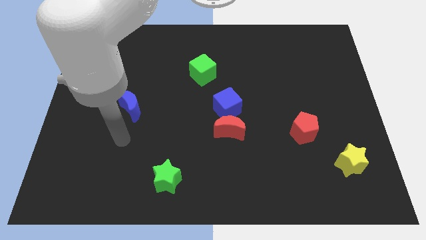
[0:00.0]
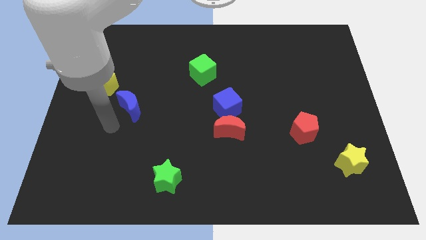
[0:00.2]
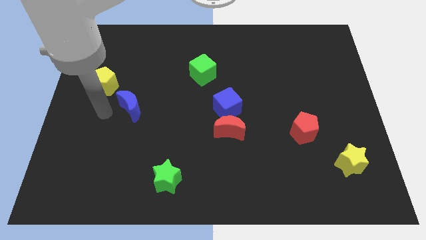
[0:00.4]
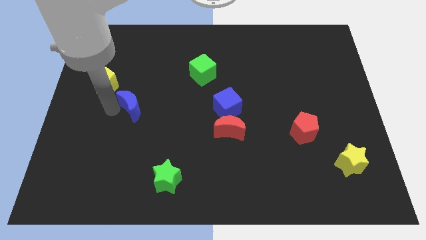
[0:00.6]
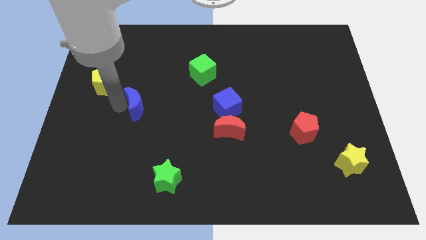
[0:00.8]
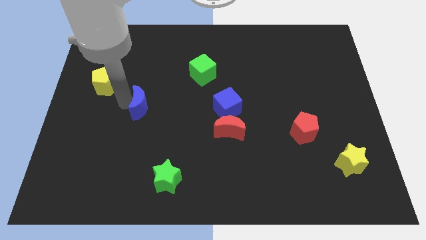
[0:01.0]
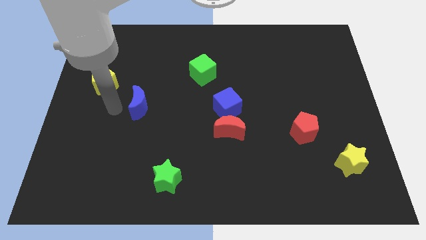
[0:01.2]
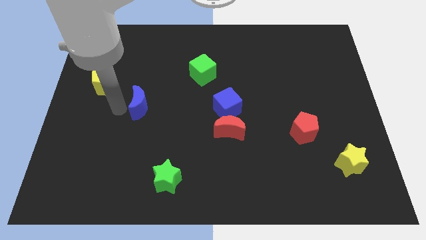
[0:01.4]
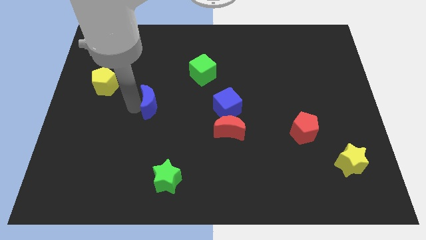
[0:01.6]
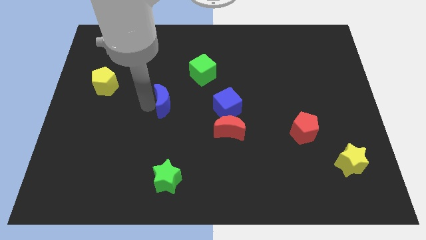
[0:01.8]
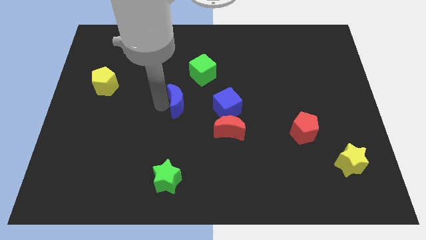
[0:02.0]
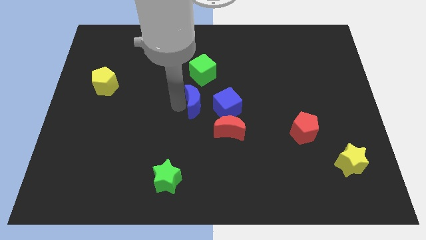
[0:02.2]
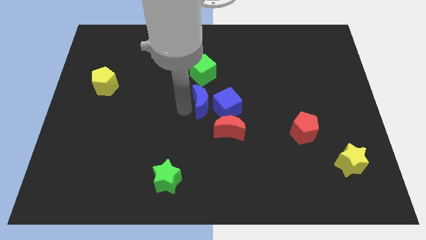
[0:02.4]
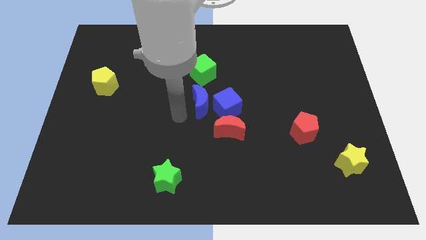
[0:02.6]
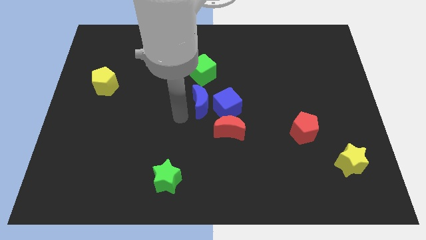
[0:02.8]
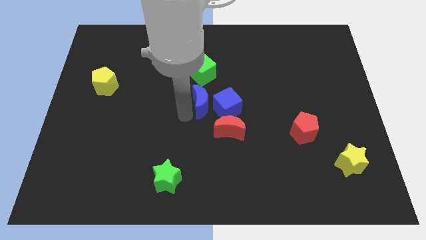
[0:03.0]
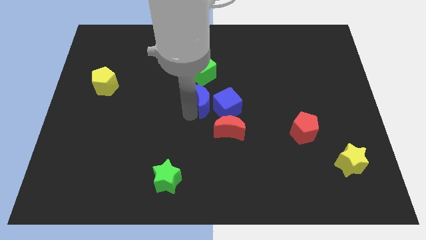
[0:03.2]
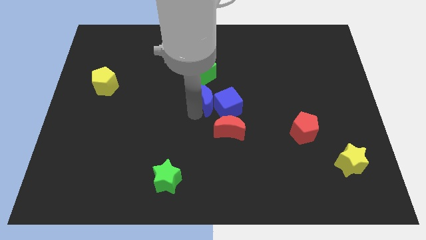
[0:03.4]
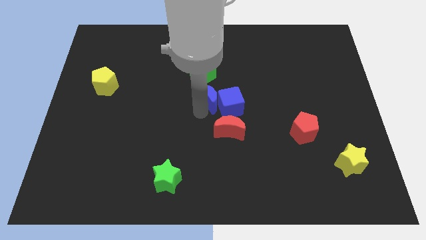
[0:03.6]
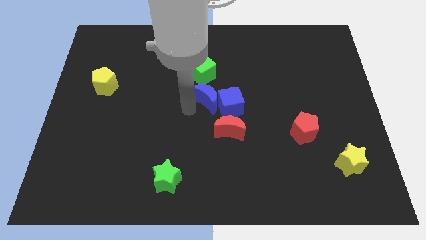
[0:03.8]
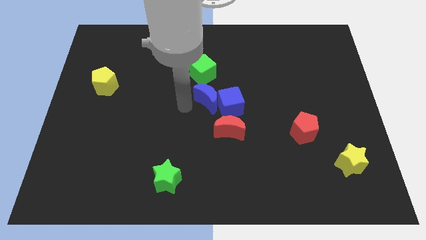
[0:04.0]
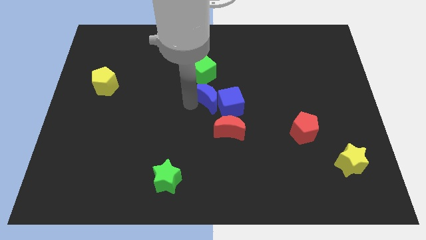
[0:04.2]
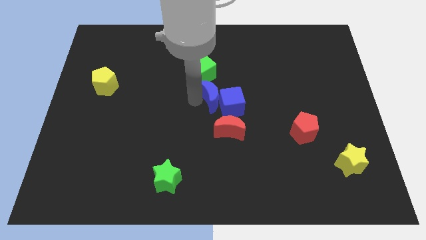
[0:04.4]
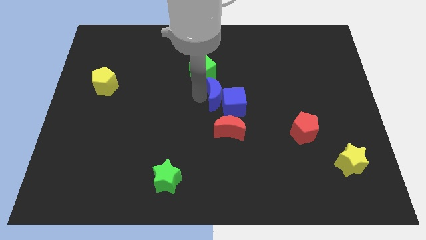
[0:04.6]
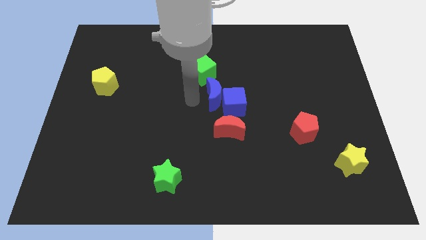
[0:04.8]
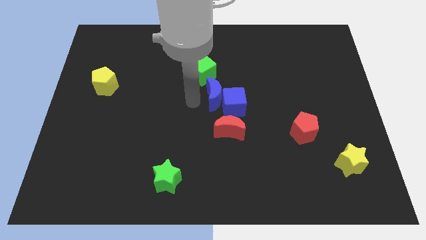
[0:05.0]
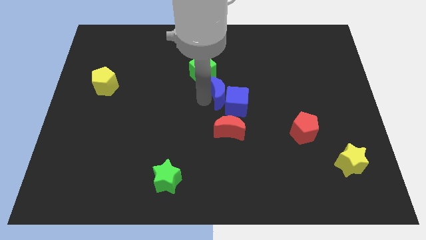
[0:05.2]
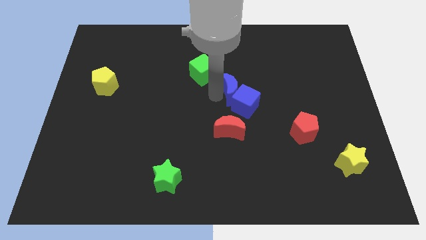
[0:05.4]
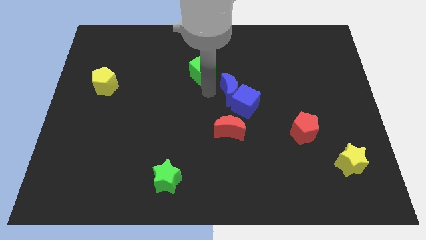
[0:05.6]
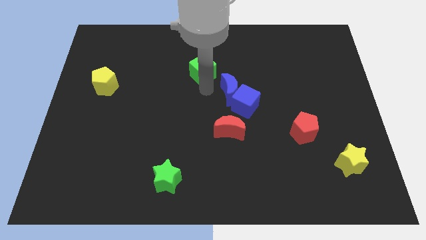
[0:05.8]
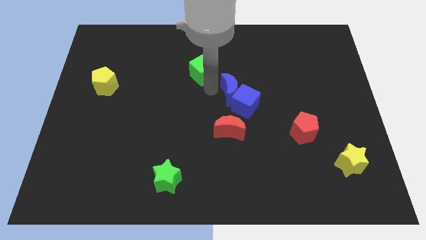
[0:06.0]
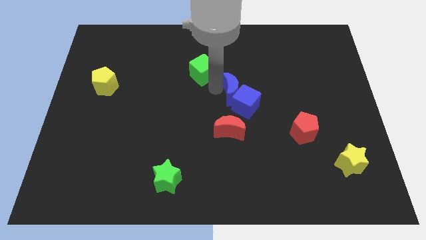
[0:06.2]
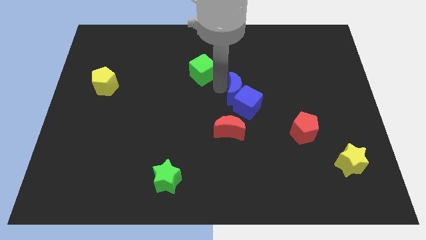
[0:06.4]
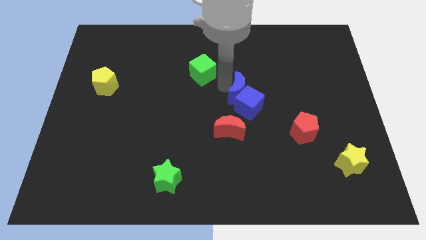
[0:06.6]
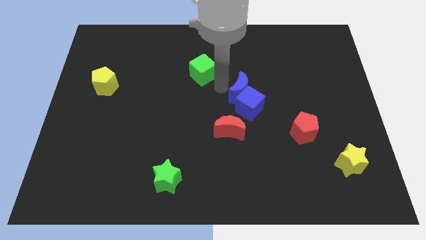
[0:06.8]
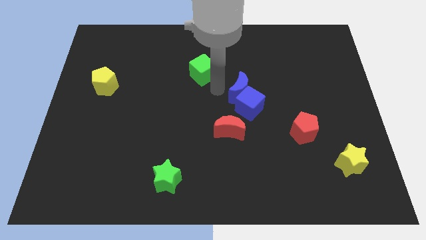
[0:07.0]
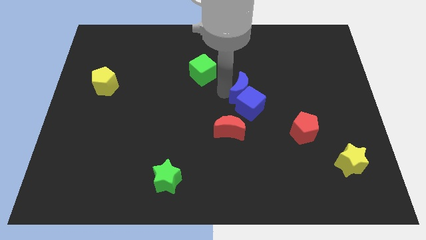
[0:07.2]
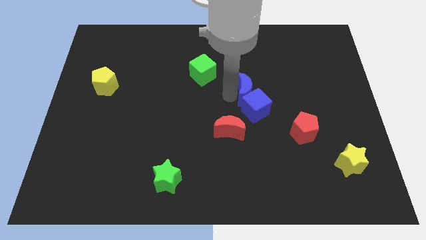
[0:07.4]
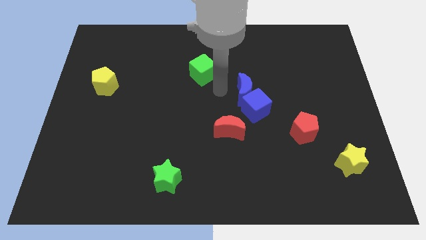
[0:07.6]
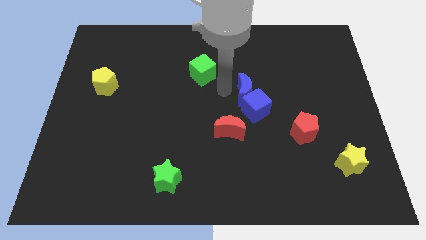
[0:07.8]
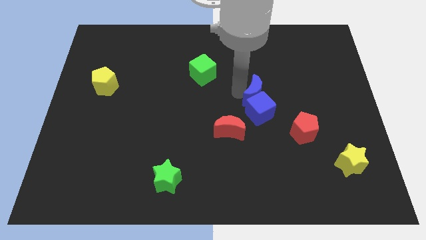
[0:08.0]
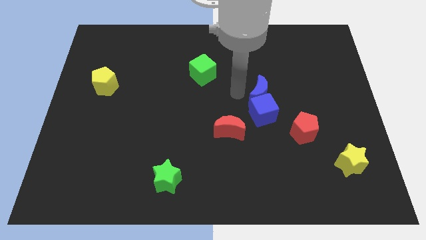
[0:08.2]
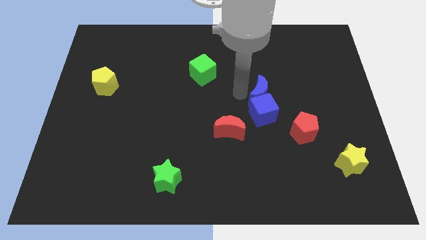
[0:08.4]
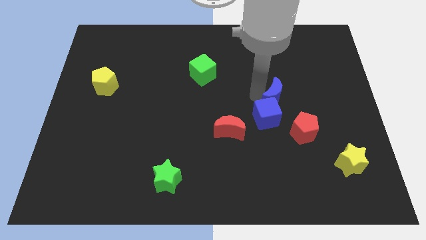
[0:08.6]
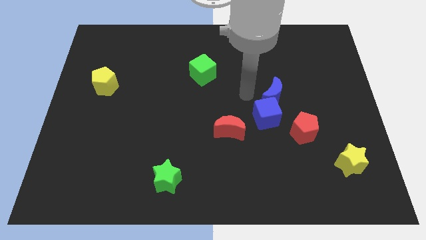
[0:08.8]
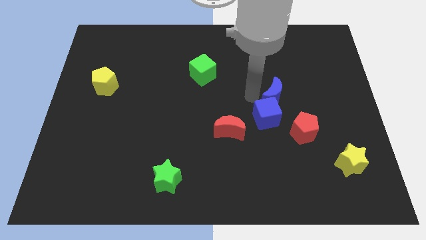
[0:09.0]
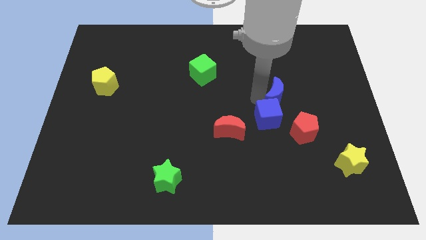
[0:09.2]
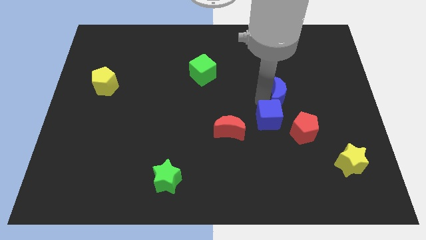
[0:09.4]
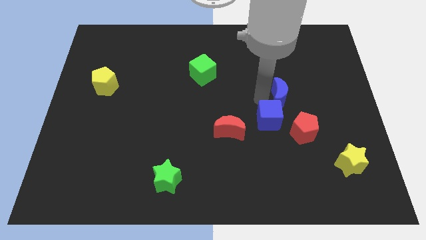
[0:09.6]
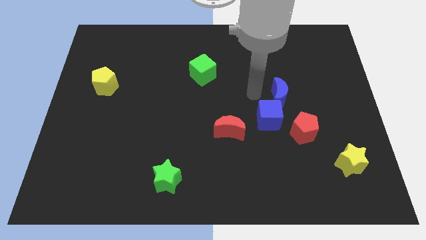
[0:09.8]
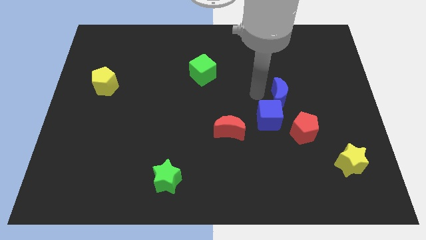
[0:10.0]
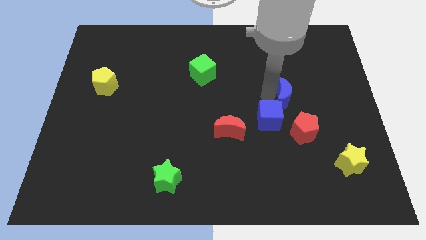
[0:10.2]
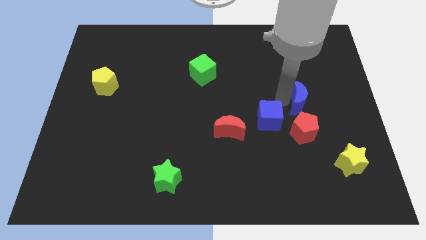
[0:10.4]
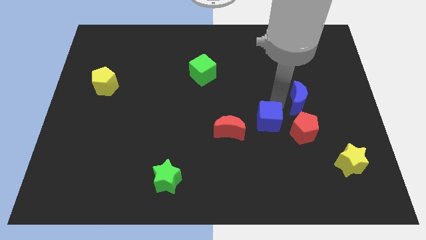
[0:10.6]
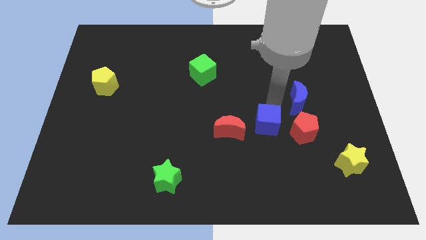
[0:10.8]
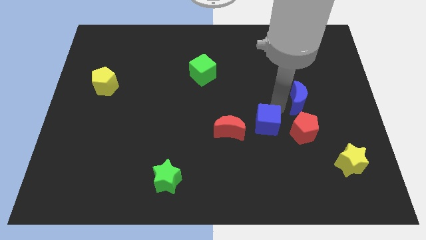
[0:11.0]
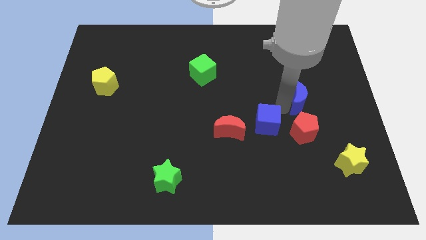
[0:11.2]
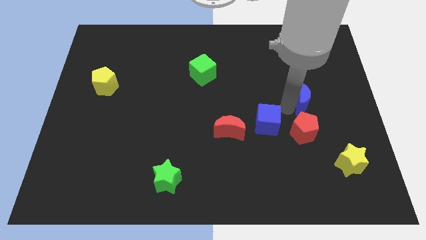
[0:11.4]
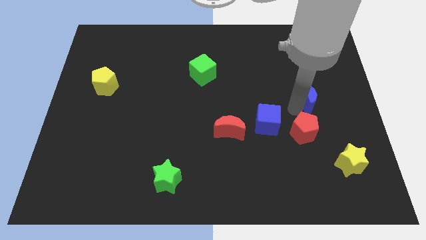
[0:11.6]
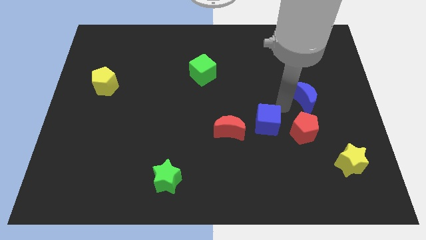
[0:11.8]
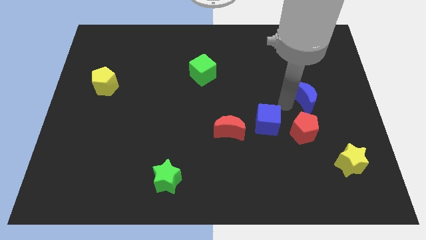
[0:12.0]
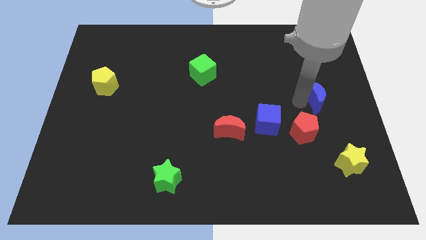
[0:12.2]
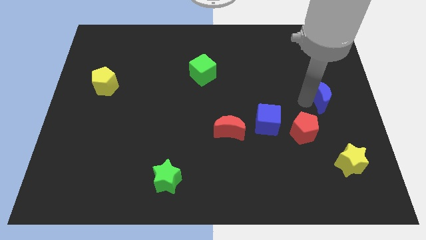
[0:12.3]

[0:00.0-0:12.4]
push the blue moon to the right side

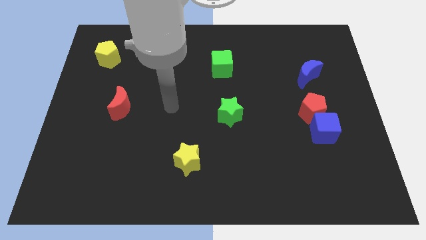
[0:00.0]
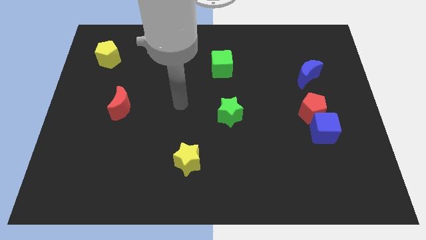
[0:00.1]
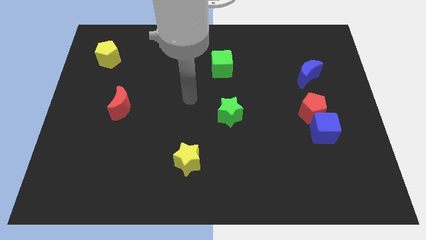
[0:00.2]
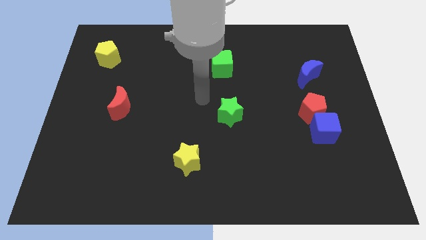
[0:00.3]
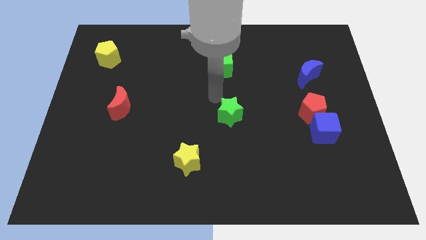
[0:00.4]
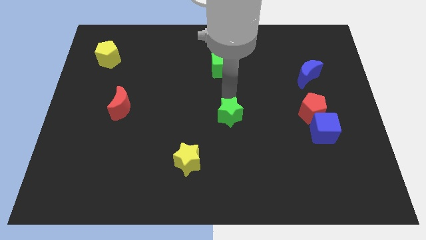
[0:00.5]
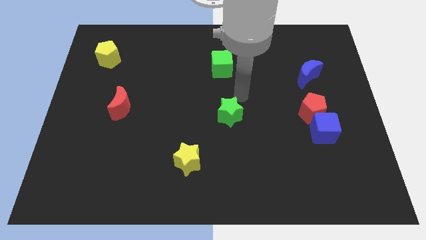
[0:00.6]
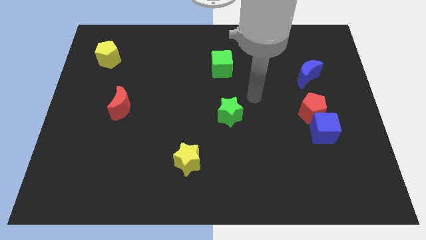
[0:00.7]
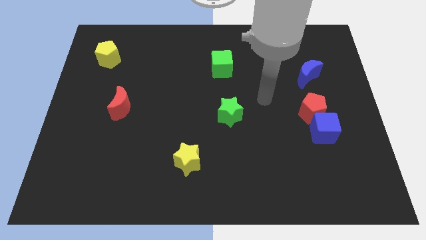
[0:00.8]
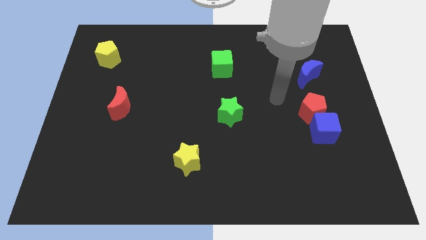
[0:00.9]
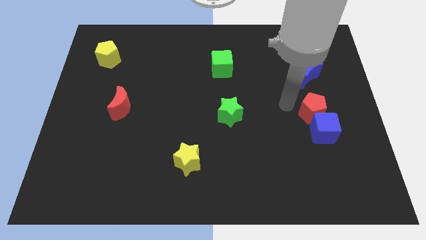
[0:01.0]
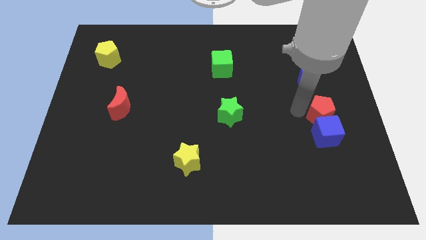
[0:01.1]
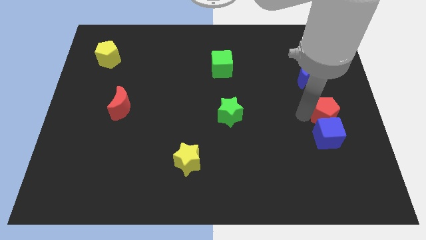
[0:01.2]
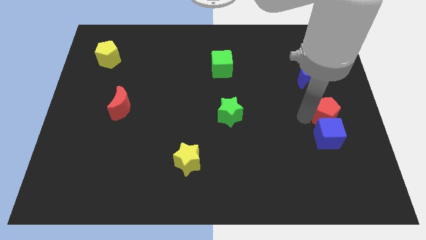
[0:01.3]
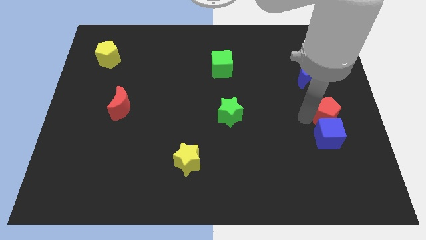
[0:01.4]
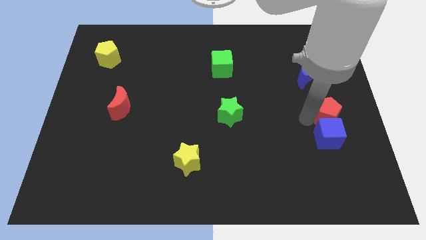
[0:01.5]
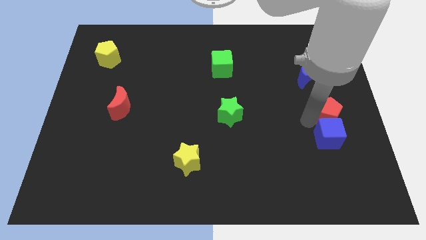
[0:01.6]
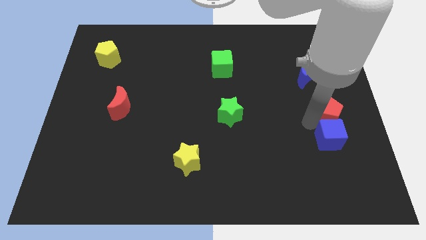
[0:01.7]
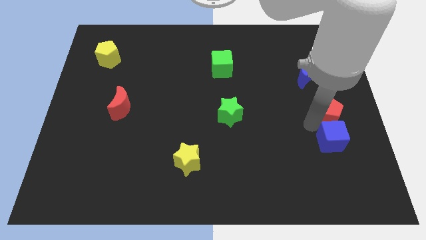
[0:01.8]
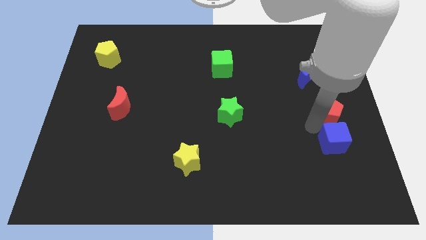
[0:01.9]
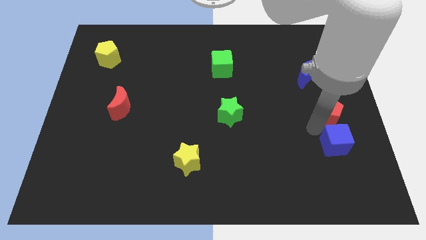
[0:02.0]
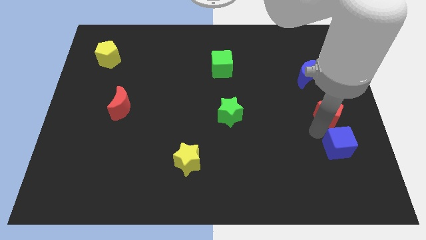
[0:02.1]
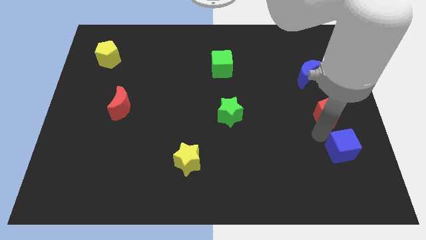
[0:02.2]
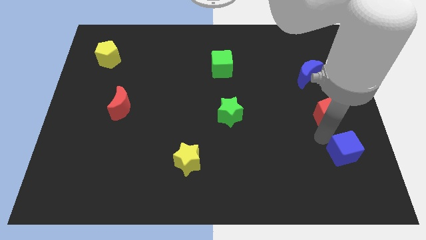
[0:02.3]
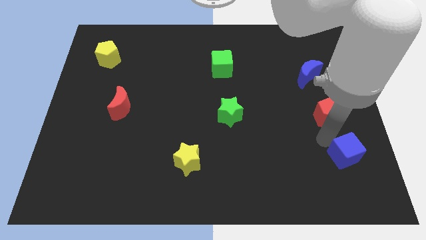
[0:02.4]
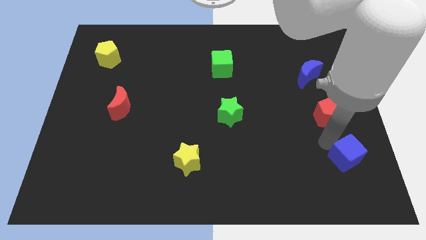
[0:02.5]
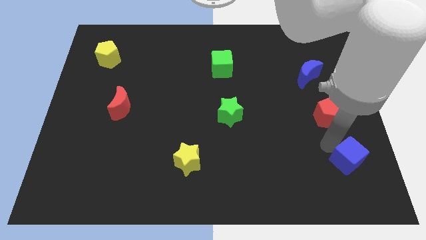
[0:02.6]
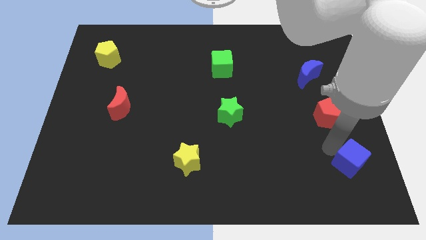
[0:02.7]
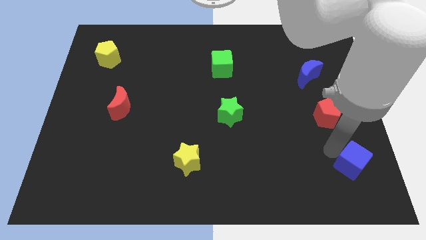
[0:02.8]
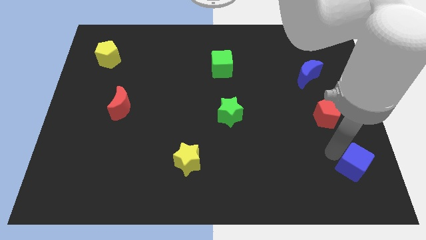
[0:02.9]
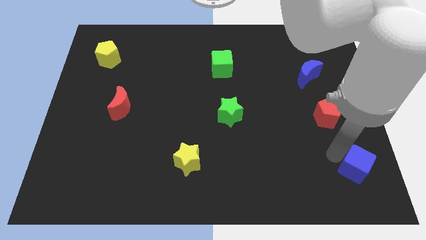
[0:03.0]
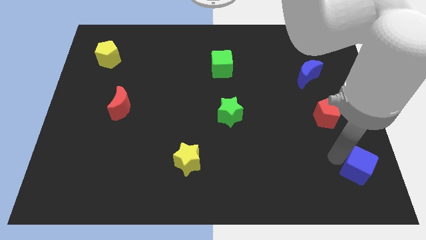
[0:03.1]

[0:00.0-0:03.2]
put the blue cube to the bottom right corner
